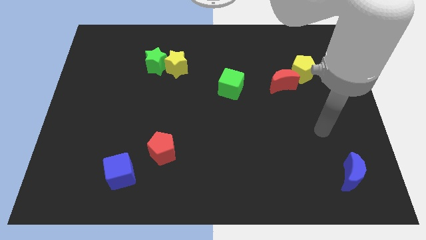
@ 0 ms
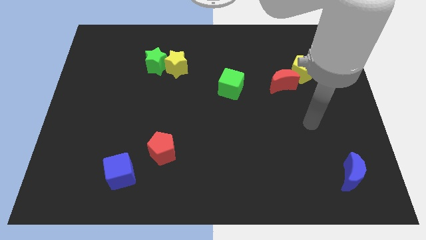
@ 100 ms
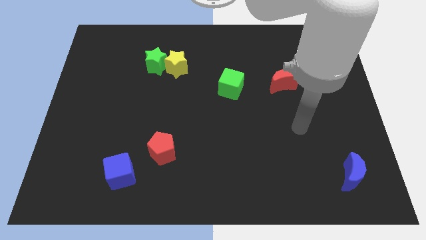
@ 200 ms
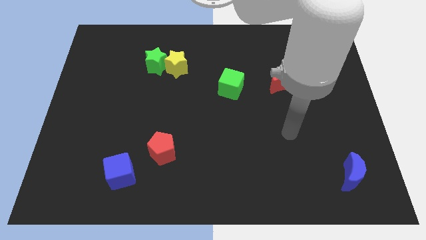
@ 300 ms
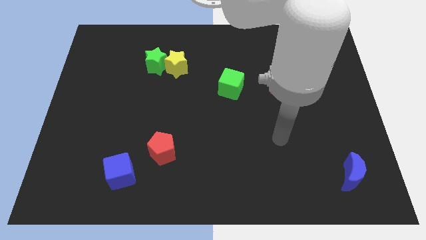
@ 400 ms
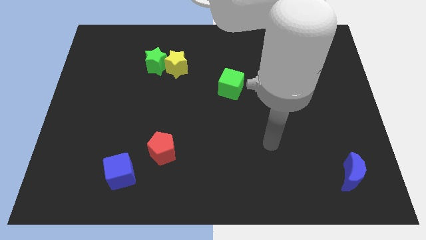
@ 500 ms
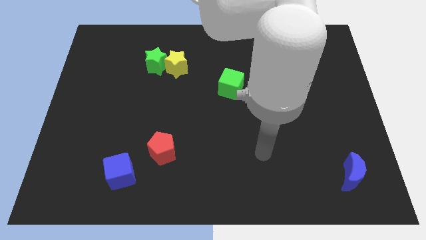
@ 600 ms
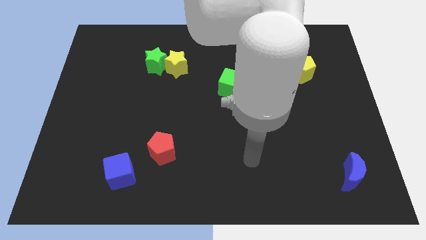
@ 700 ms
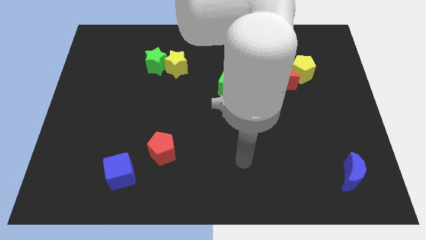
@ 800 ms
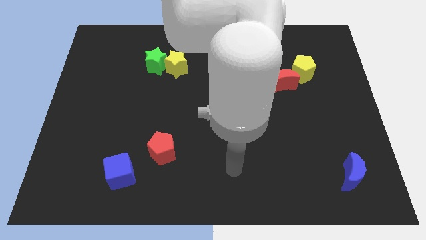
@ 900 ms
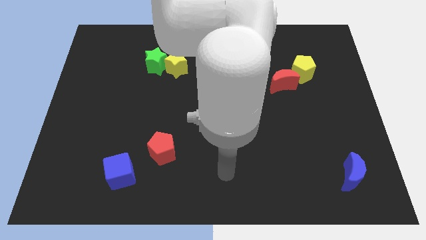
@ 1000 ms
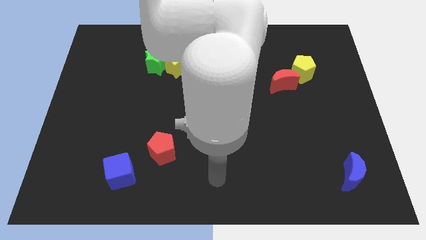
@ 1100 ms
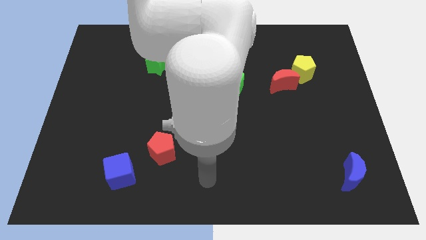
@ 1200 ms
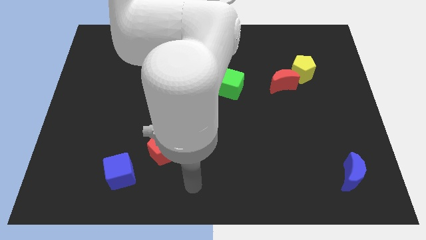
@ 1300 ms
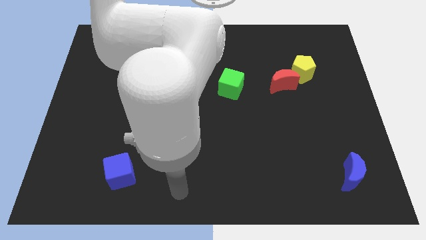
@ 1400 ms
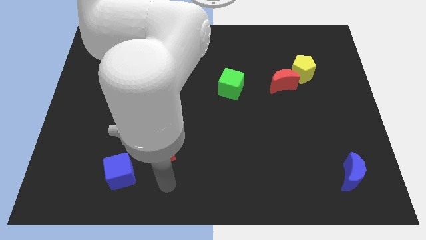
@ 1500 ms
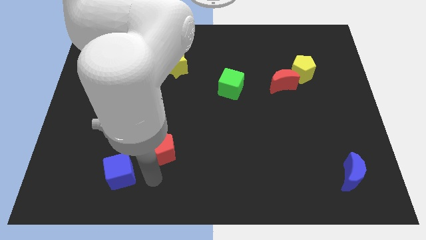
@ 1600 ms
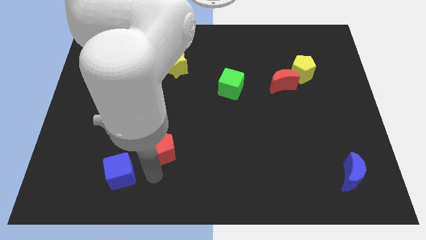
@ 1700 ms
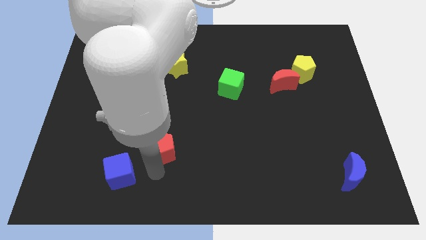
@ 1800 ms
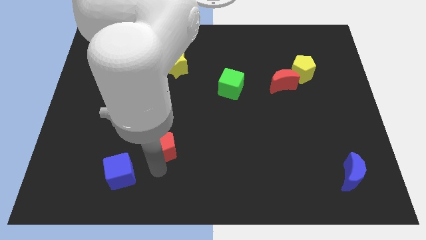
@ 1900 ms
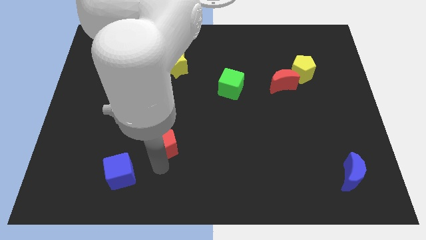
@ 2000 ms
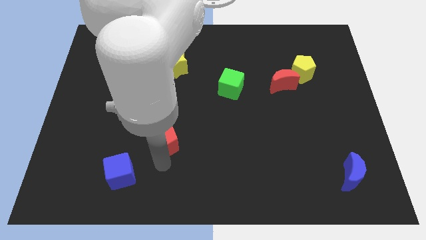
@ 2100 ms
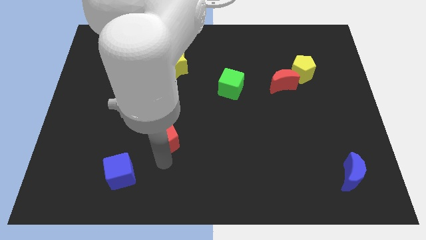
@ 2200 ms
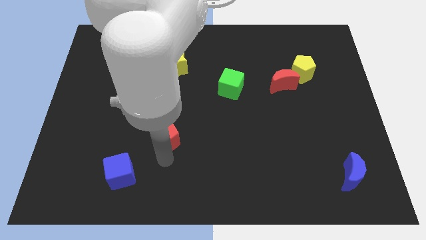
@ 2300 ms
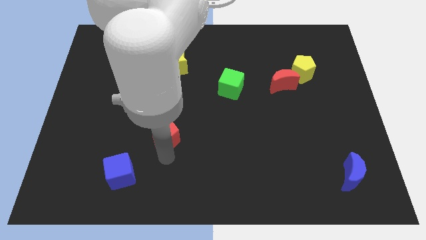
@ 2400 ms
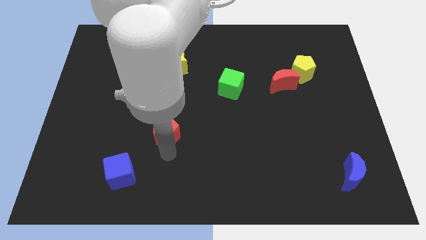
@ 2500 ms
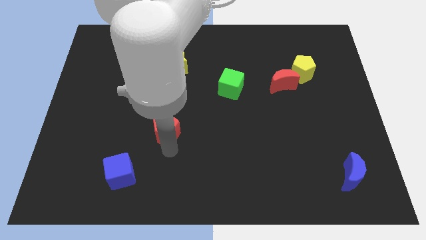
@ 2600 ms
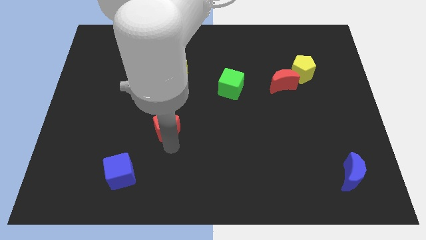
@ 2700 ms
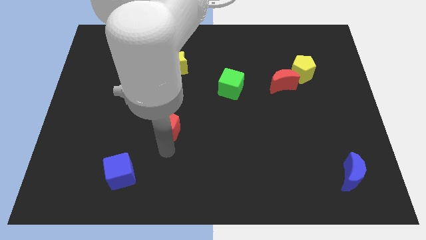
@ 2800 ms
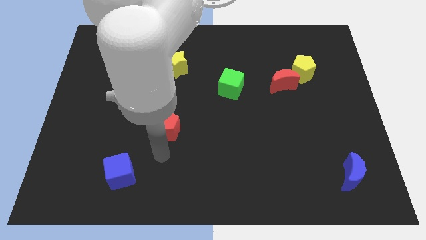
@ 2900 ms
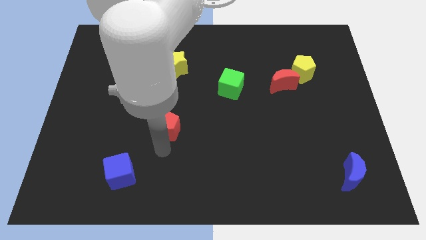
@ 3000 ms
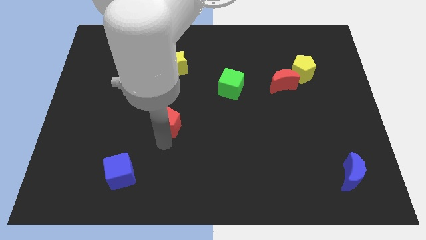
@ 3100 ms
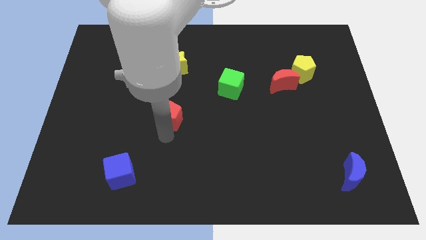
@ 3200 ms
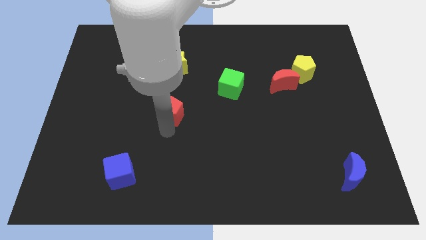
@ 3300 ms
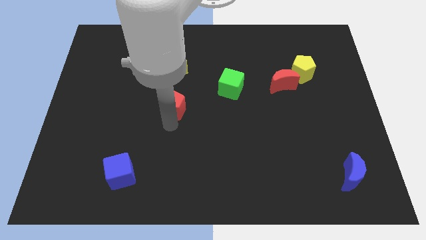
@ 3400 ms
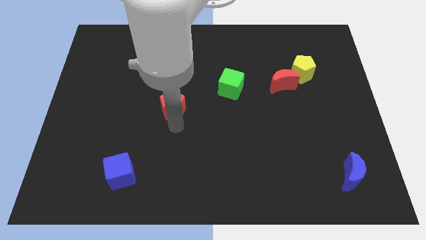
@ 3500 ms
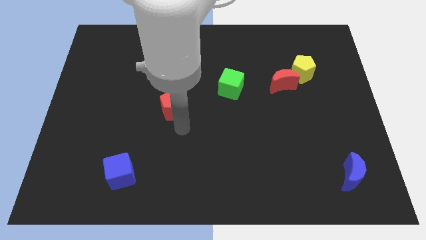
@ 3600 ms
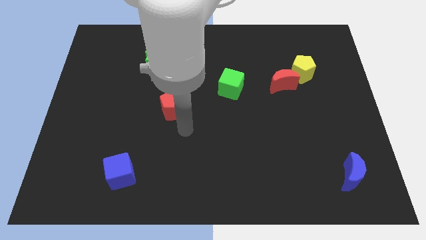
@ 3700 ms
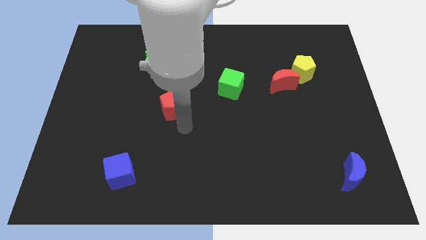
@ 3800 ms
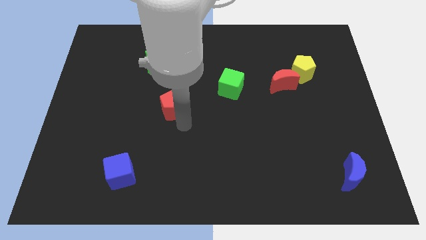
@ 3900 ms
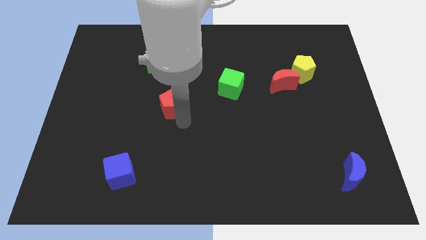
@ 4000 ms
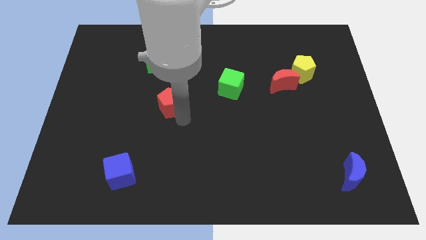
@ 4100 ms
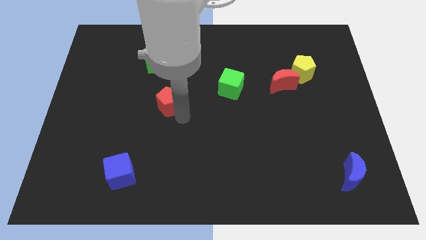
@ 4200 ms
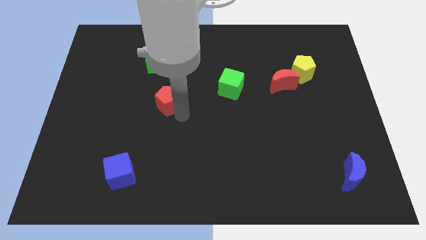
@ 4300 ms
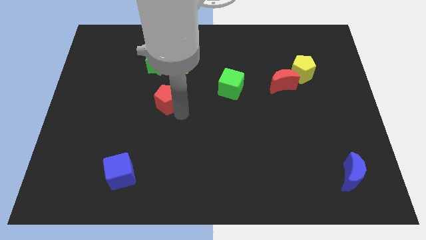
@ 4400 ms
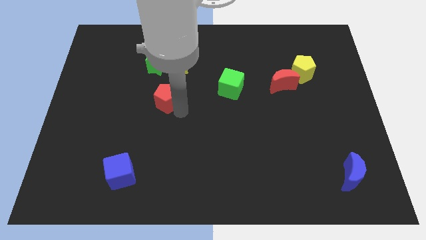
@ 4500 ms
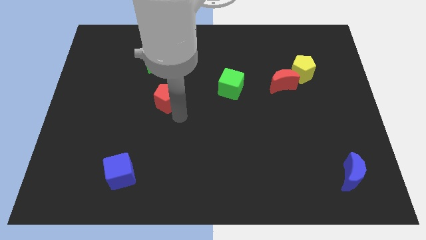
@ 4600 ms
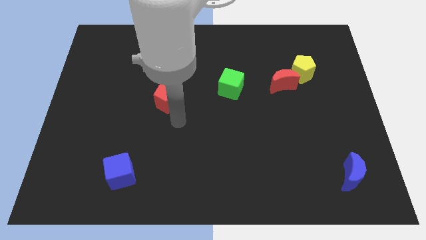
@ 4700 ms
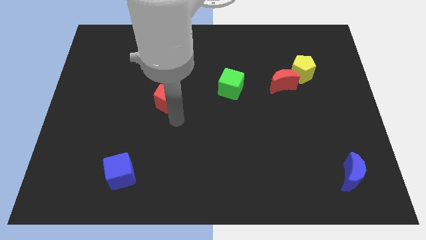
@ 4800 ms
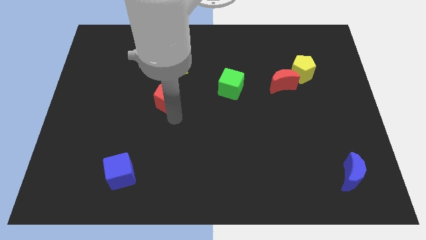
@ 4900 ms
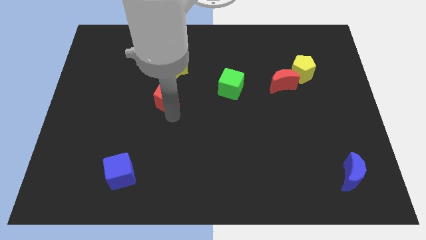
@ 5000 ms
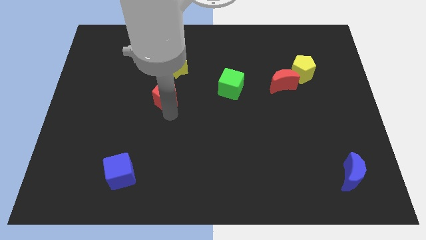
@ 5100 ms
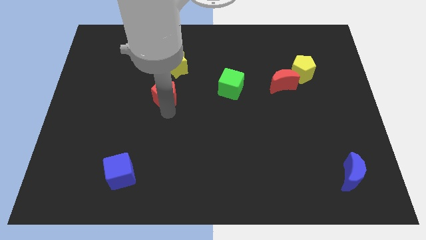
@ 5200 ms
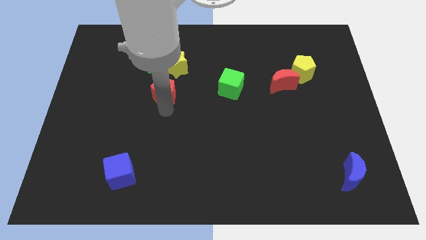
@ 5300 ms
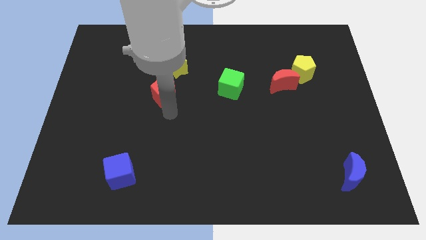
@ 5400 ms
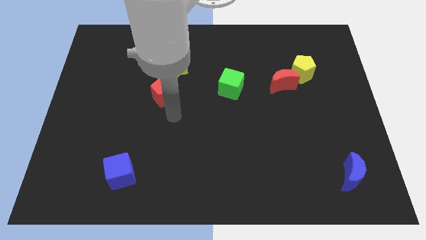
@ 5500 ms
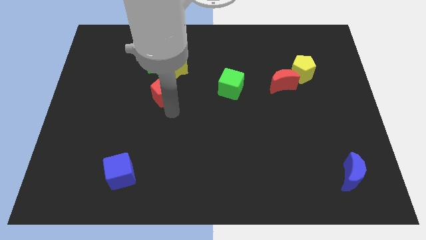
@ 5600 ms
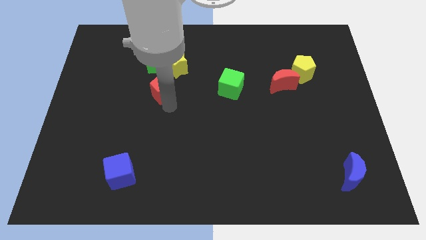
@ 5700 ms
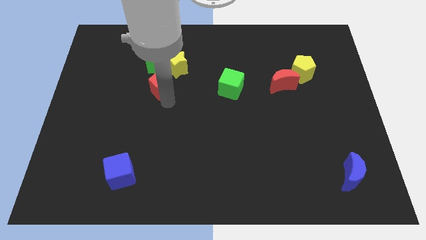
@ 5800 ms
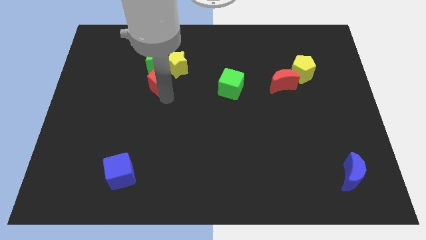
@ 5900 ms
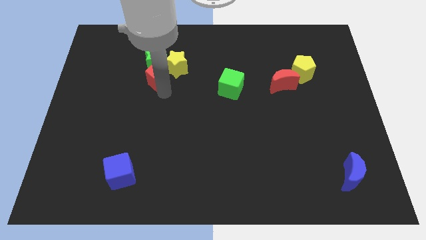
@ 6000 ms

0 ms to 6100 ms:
move the red pentagon to the green star

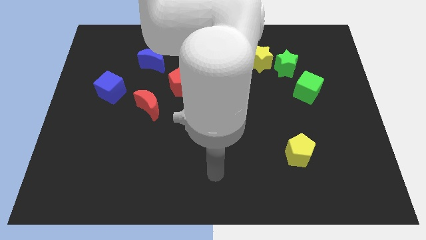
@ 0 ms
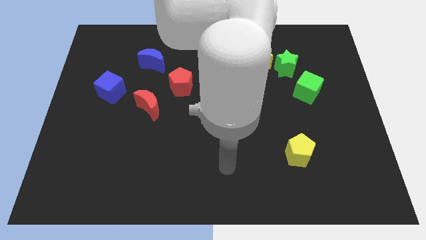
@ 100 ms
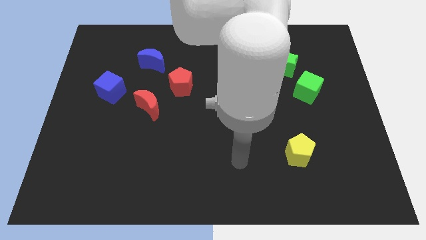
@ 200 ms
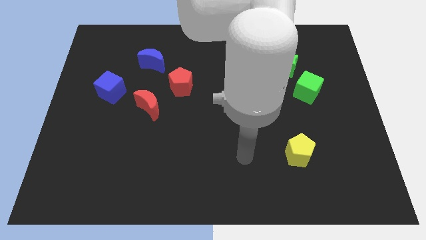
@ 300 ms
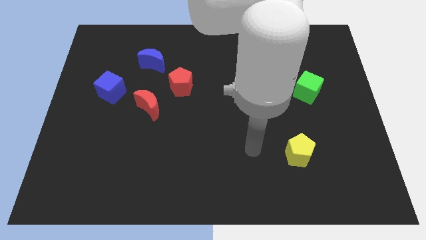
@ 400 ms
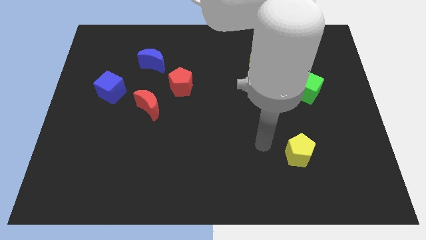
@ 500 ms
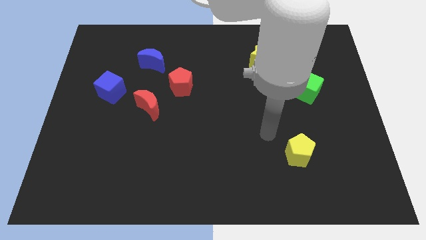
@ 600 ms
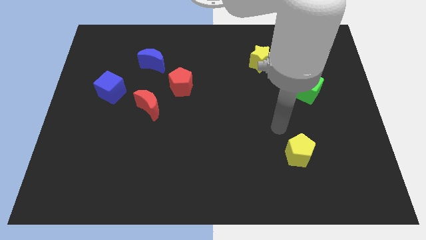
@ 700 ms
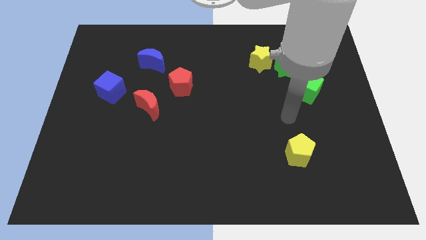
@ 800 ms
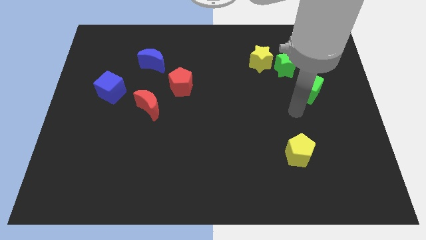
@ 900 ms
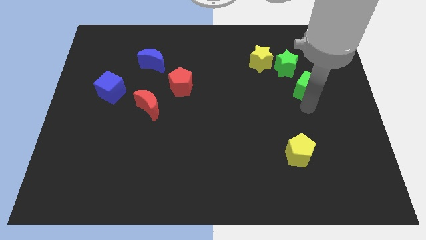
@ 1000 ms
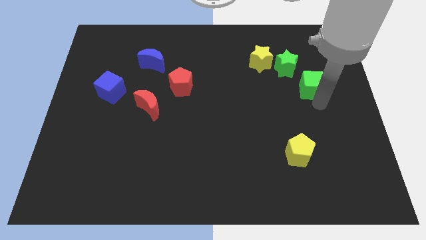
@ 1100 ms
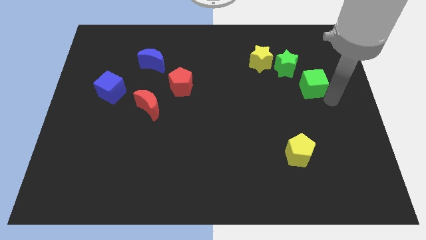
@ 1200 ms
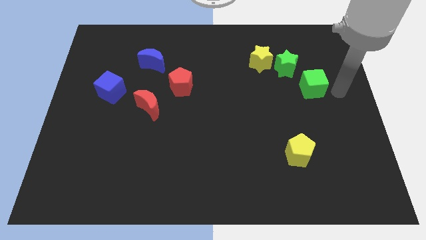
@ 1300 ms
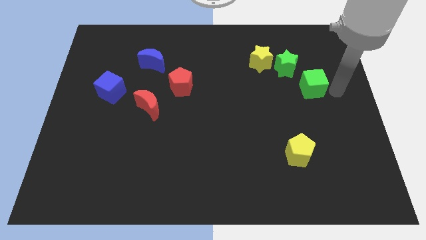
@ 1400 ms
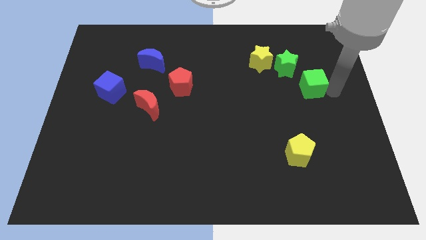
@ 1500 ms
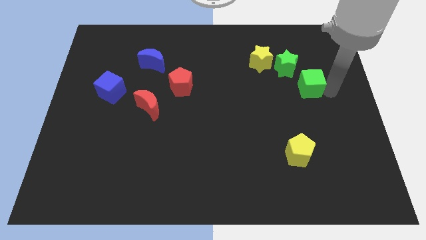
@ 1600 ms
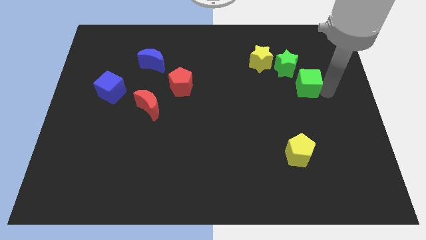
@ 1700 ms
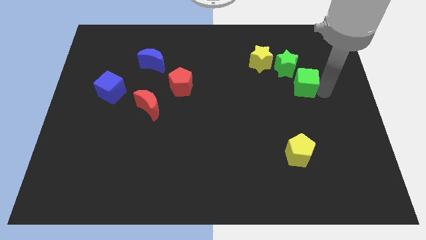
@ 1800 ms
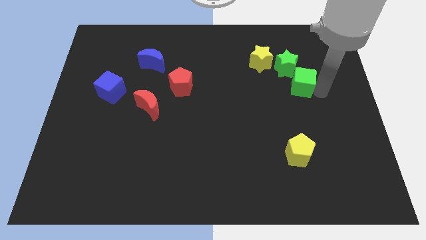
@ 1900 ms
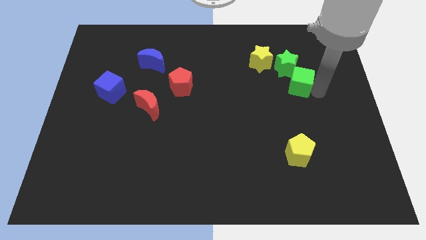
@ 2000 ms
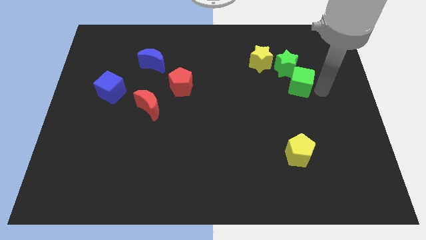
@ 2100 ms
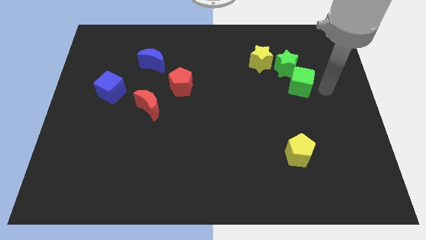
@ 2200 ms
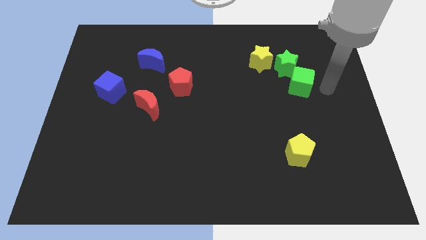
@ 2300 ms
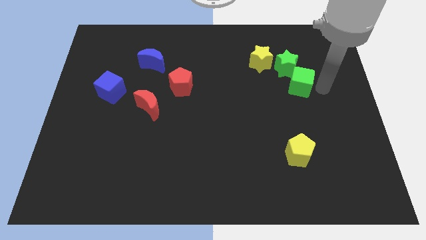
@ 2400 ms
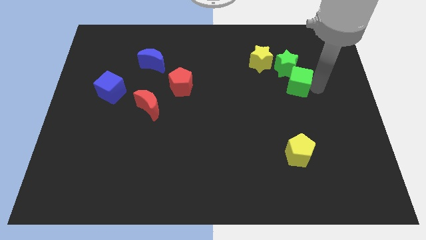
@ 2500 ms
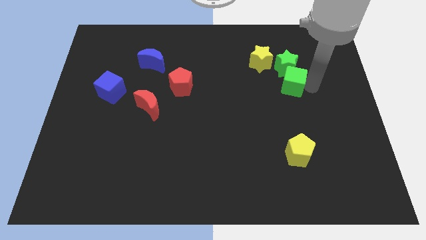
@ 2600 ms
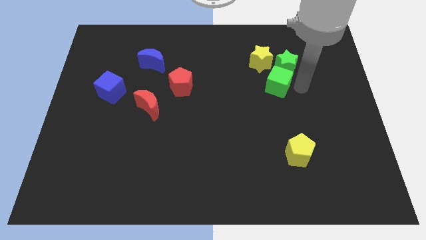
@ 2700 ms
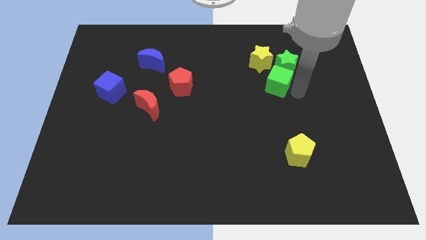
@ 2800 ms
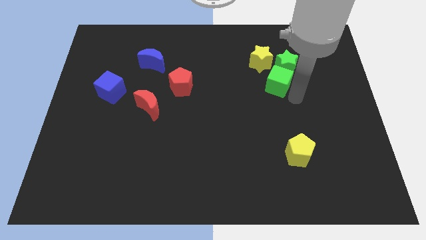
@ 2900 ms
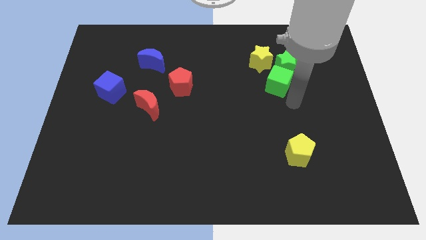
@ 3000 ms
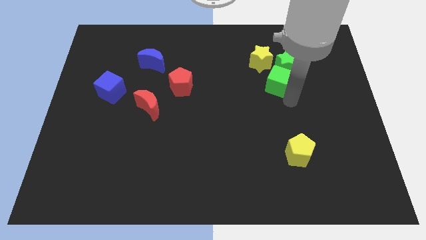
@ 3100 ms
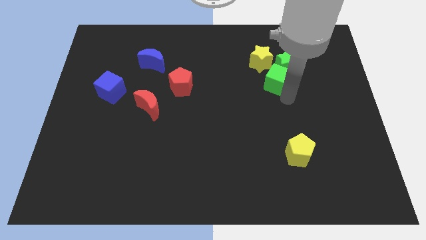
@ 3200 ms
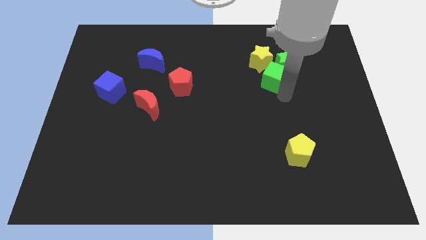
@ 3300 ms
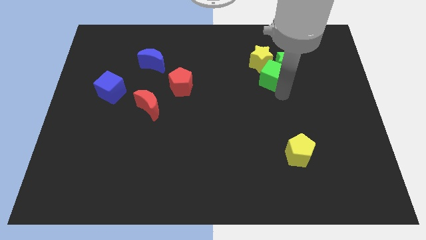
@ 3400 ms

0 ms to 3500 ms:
push the green cube to the yellow star
